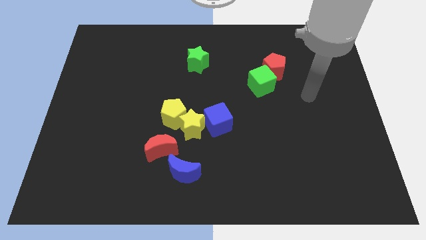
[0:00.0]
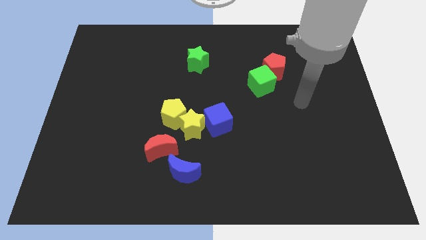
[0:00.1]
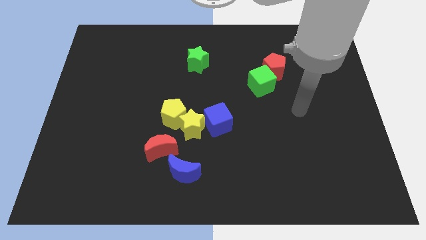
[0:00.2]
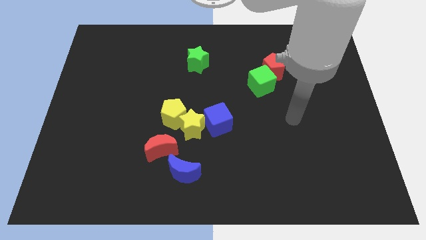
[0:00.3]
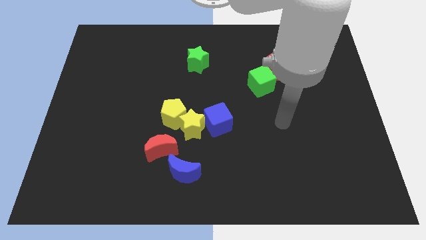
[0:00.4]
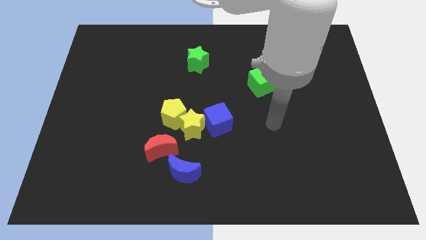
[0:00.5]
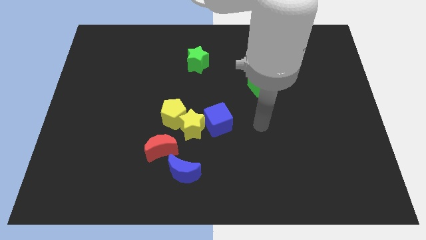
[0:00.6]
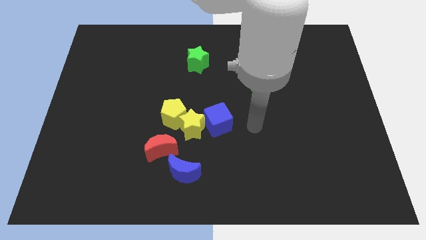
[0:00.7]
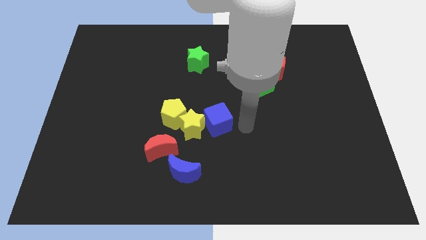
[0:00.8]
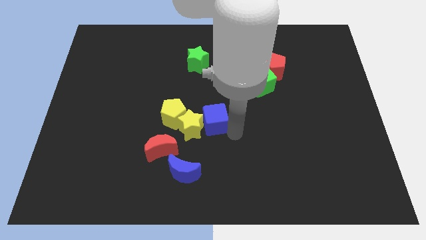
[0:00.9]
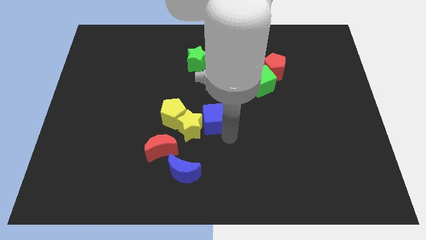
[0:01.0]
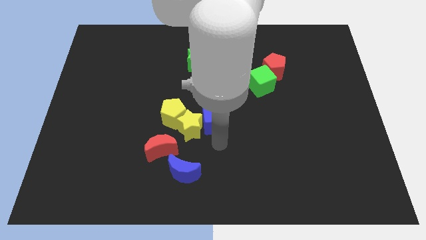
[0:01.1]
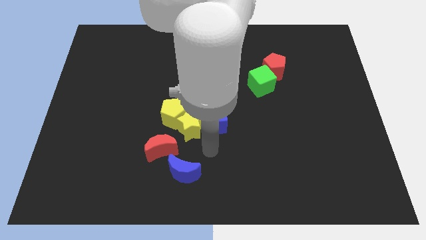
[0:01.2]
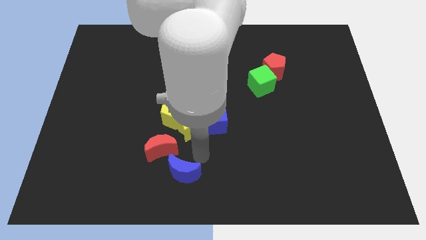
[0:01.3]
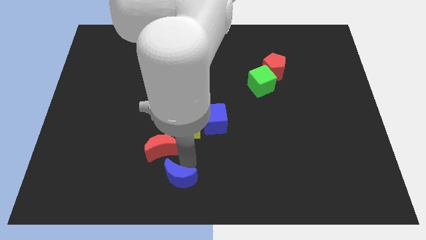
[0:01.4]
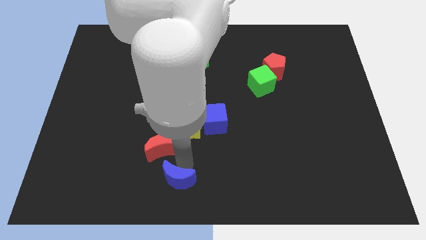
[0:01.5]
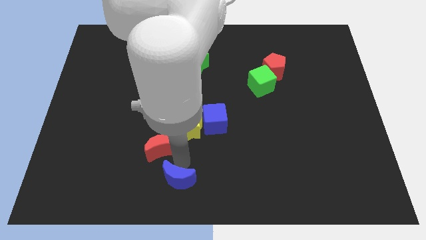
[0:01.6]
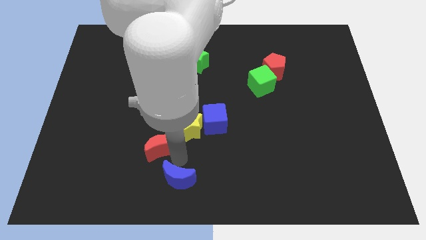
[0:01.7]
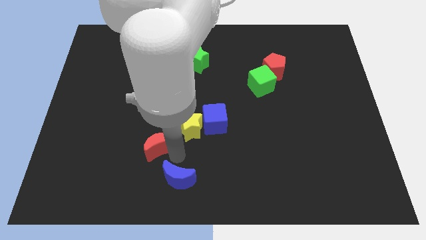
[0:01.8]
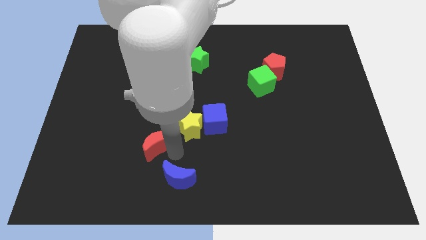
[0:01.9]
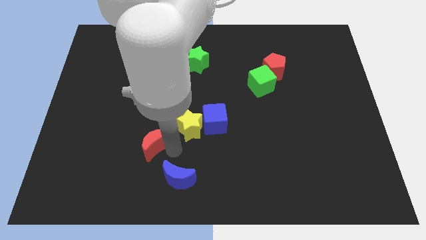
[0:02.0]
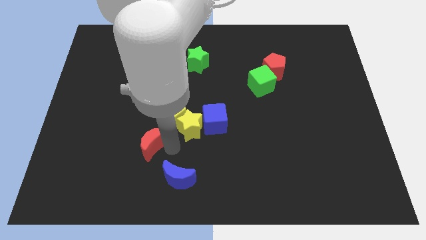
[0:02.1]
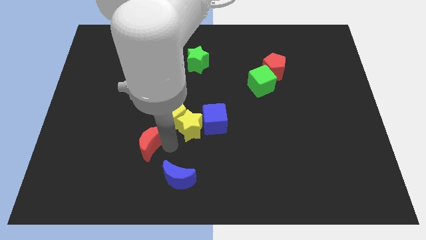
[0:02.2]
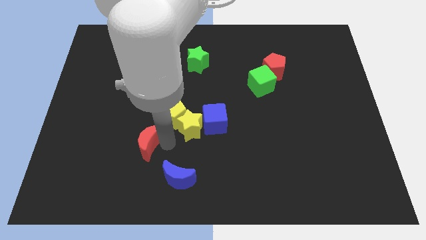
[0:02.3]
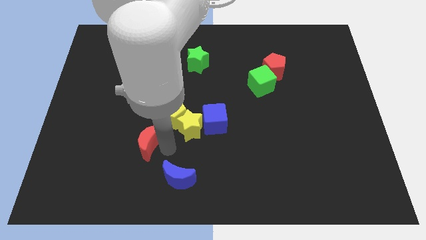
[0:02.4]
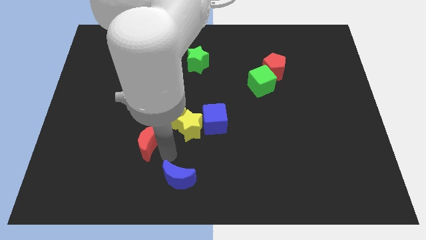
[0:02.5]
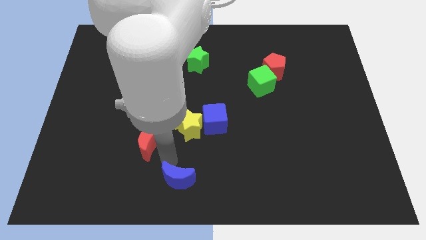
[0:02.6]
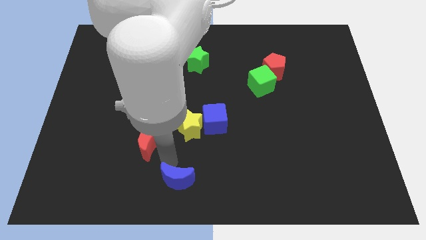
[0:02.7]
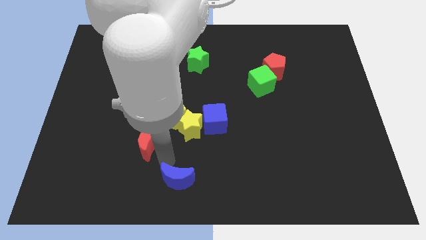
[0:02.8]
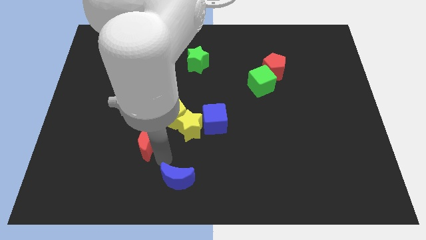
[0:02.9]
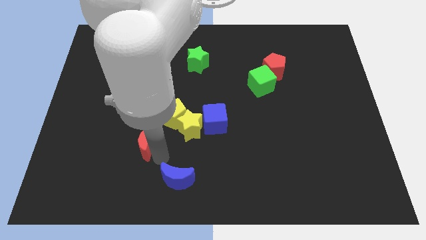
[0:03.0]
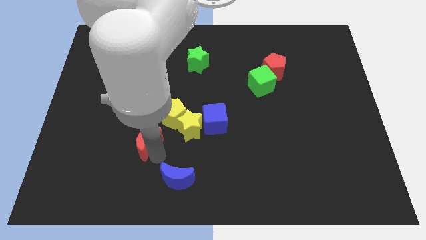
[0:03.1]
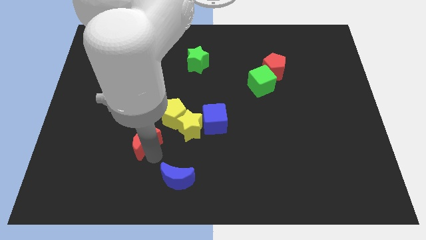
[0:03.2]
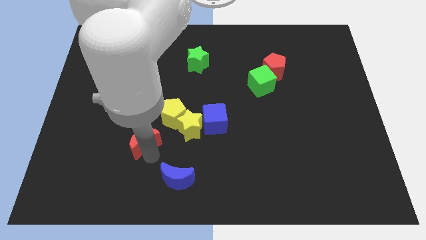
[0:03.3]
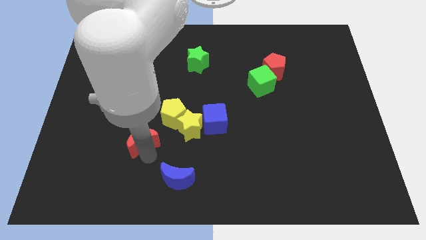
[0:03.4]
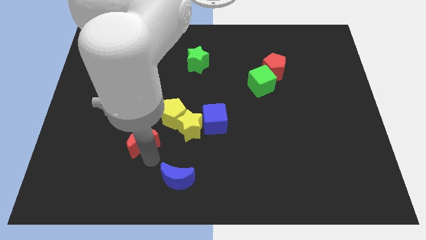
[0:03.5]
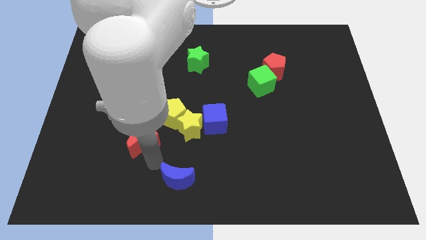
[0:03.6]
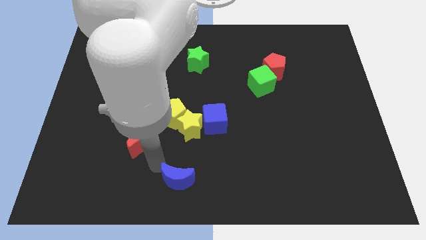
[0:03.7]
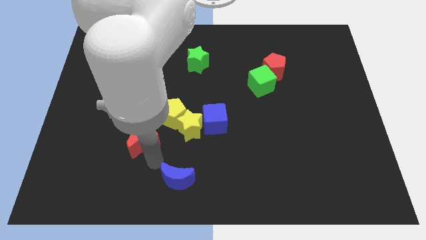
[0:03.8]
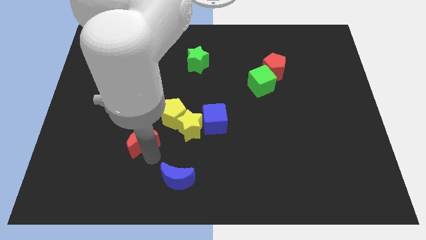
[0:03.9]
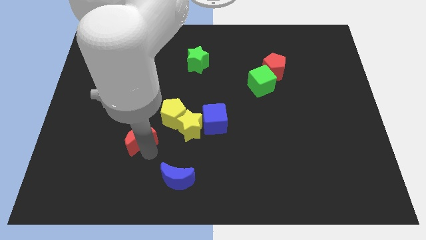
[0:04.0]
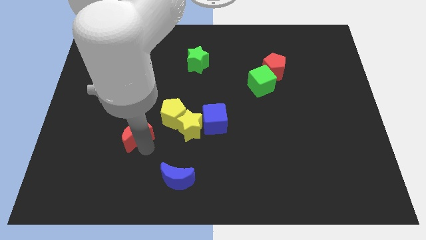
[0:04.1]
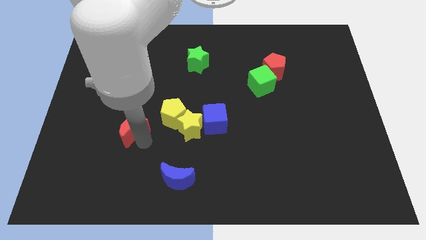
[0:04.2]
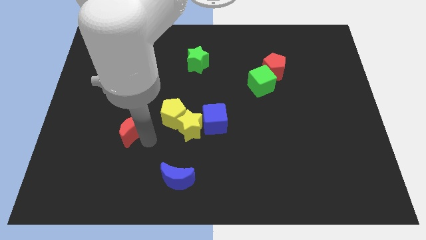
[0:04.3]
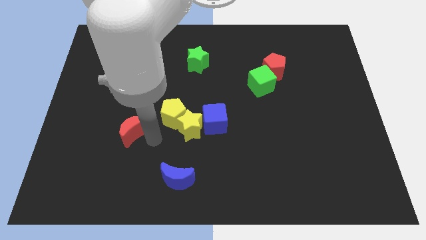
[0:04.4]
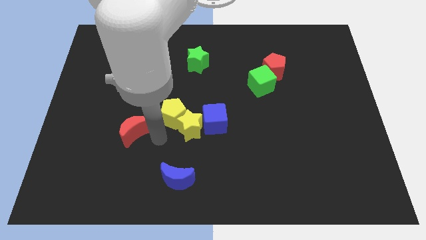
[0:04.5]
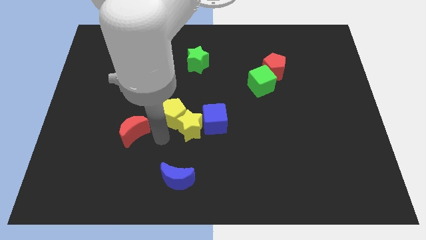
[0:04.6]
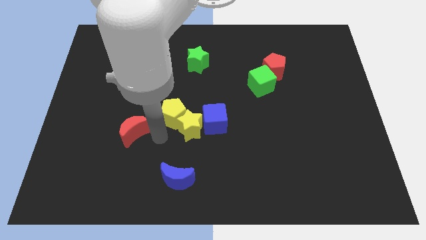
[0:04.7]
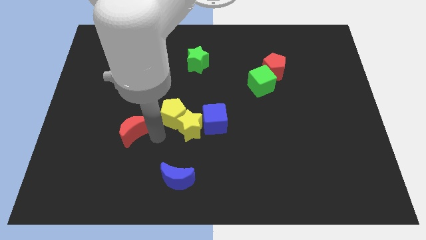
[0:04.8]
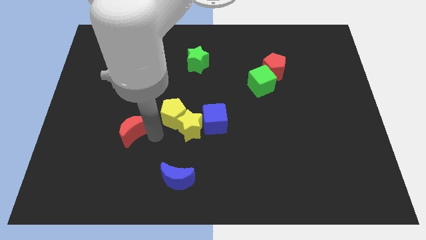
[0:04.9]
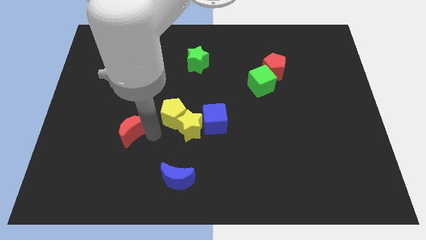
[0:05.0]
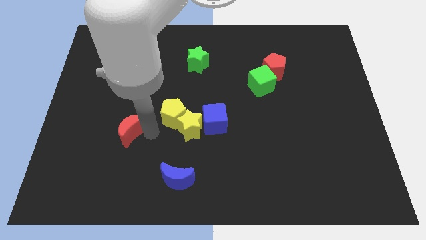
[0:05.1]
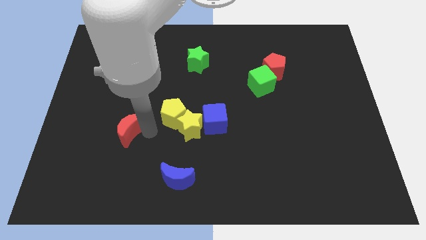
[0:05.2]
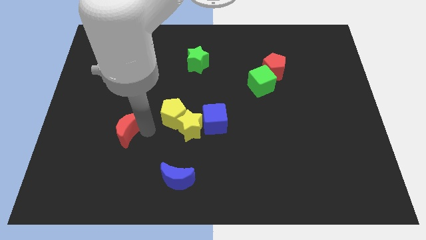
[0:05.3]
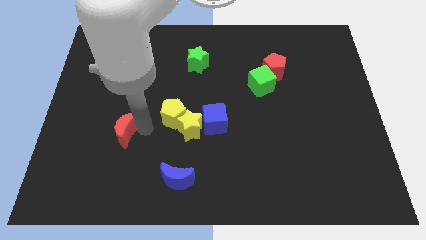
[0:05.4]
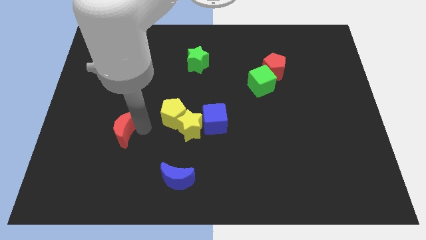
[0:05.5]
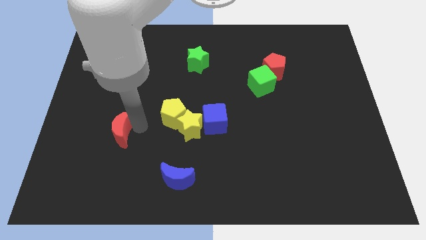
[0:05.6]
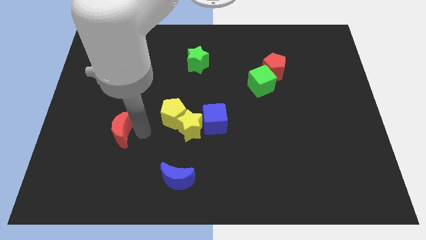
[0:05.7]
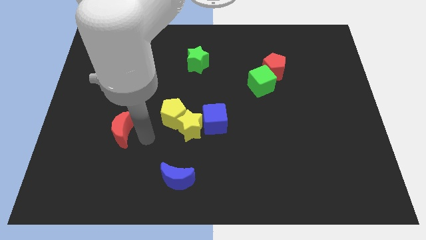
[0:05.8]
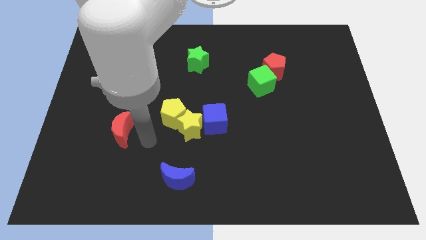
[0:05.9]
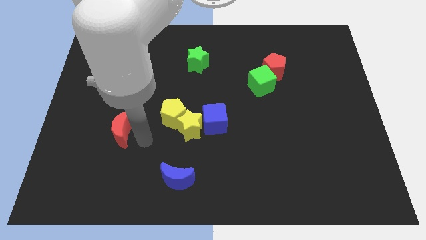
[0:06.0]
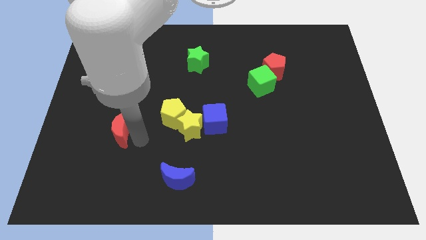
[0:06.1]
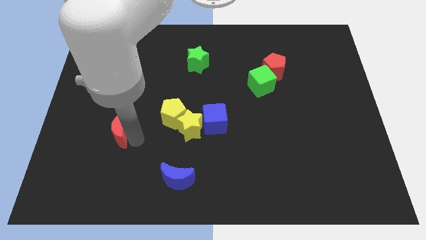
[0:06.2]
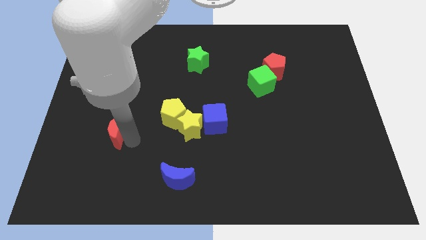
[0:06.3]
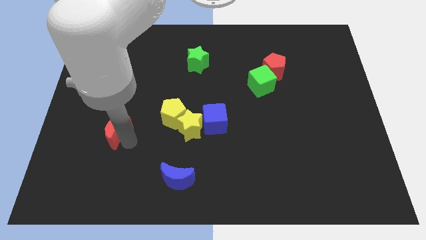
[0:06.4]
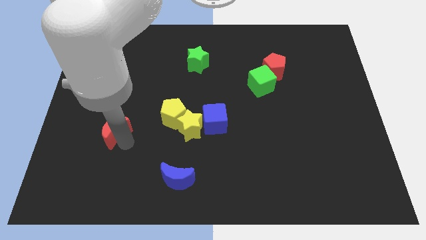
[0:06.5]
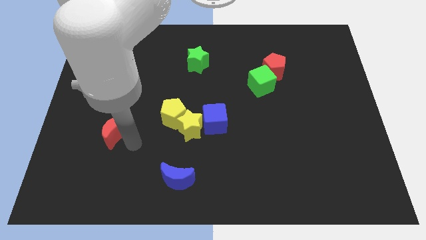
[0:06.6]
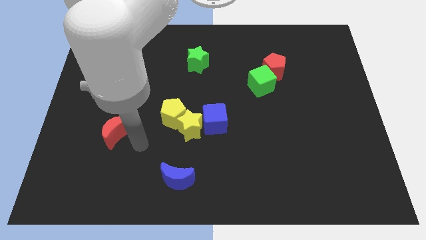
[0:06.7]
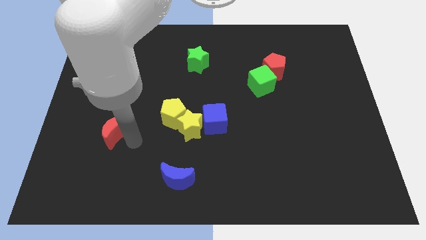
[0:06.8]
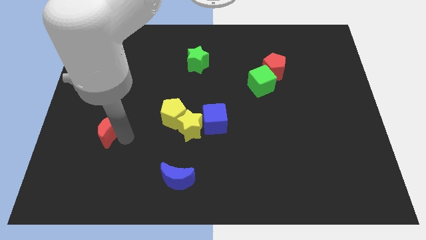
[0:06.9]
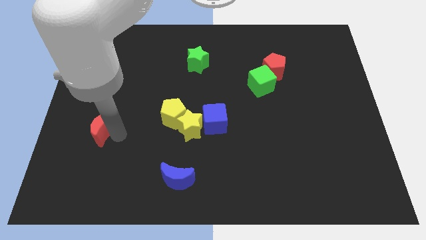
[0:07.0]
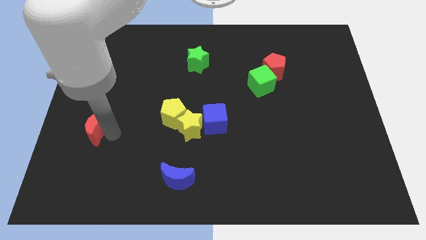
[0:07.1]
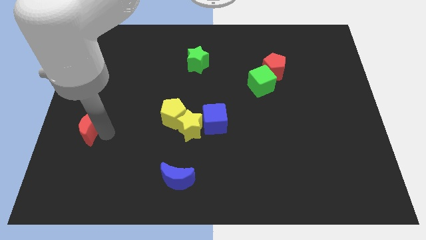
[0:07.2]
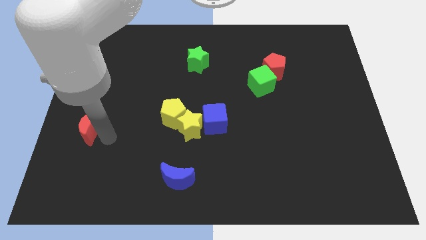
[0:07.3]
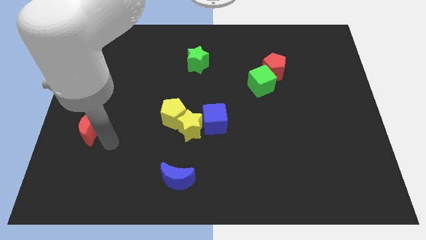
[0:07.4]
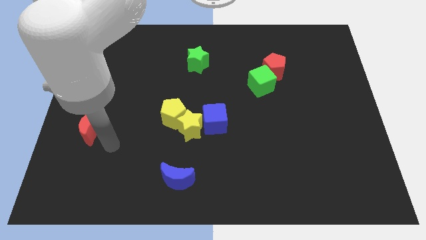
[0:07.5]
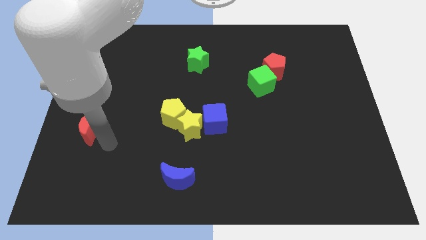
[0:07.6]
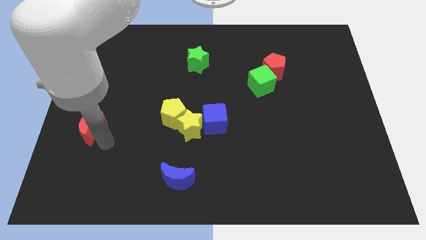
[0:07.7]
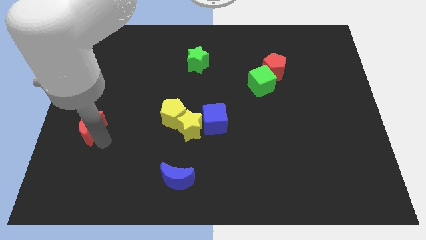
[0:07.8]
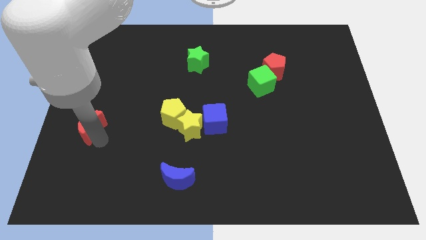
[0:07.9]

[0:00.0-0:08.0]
push the red moon to the left side
